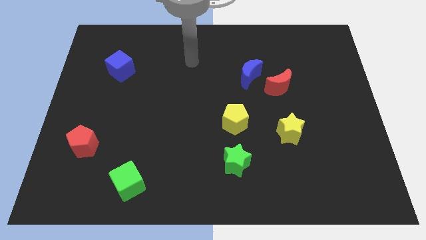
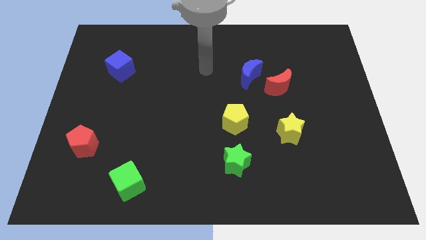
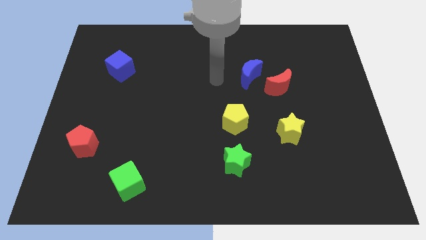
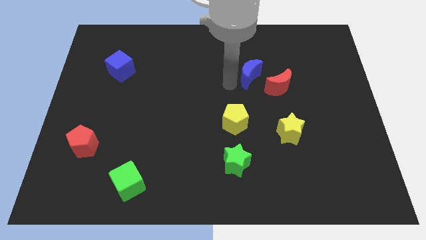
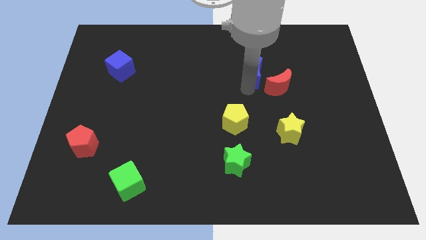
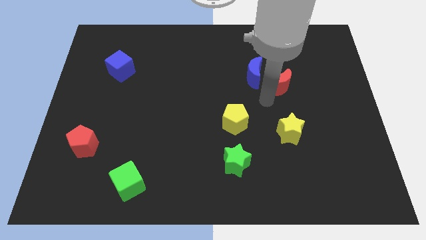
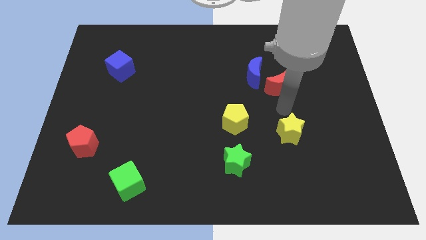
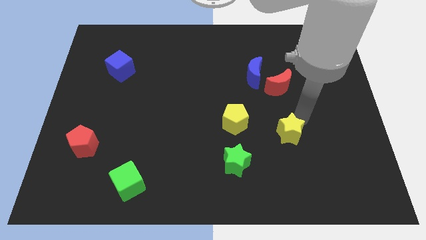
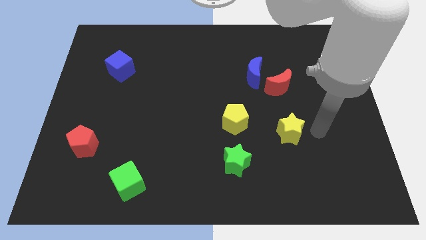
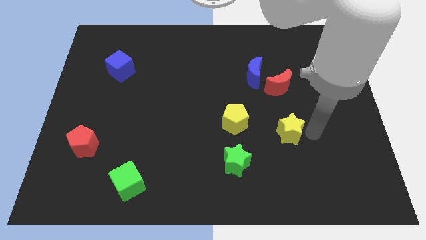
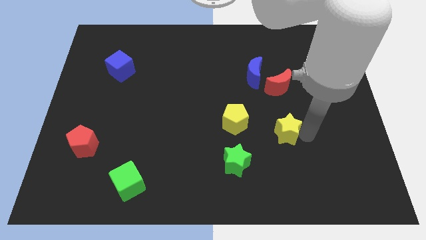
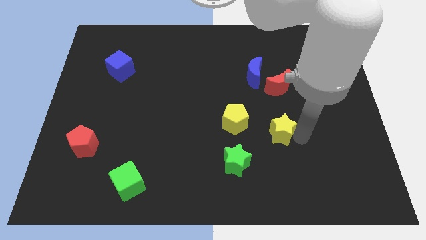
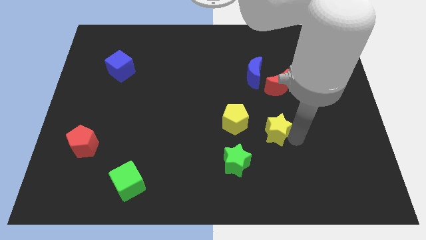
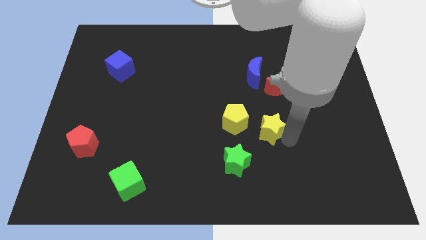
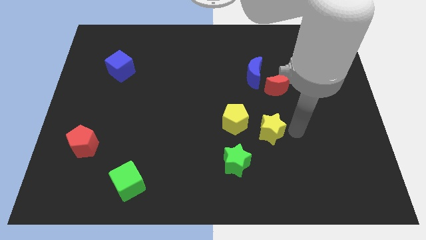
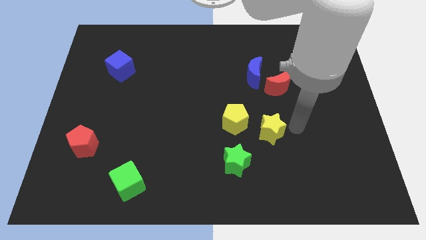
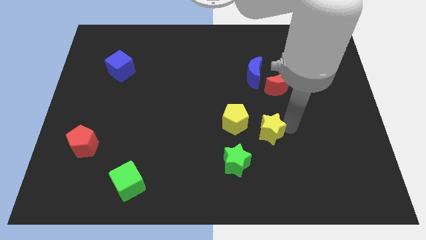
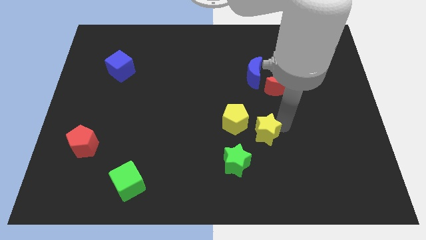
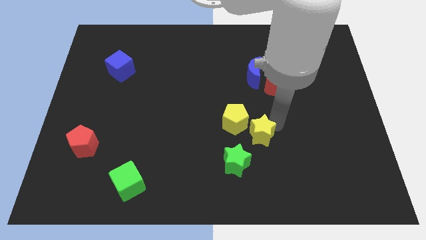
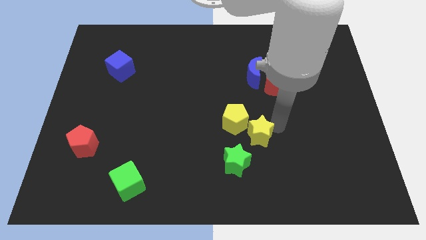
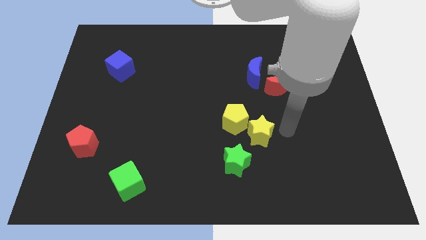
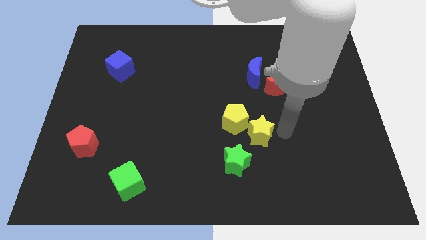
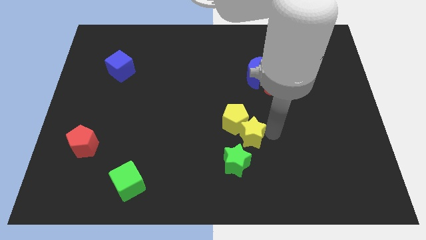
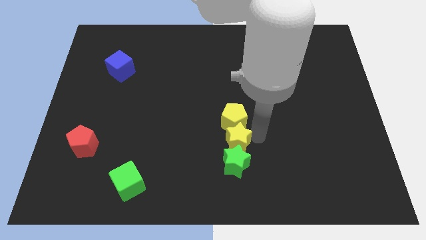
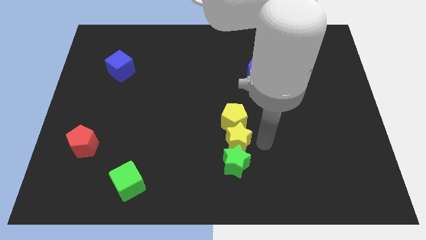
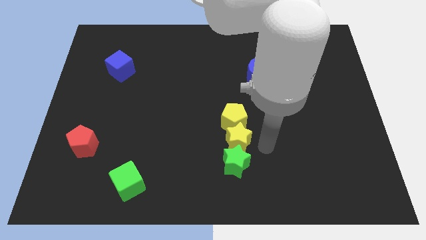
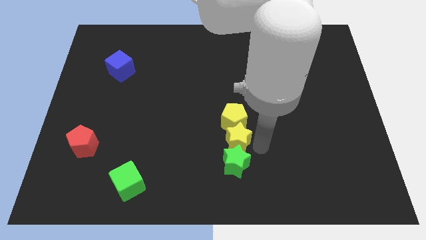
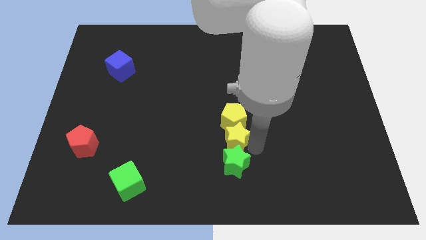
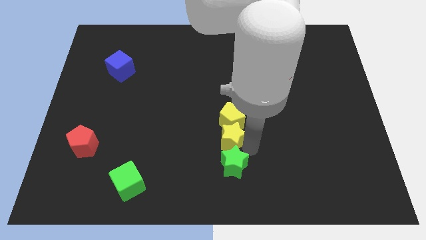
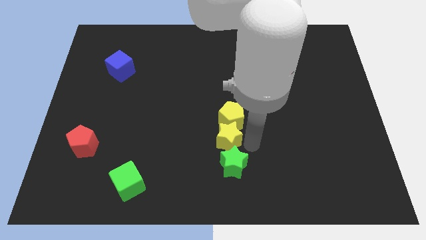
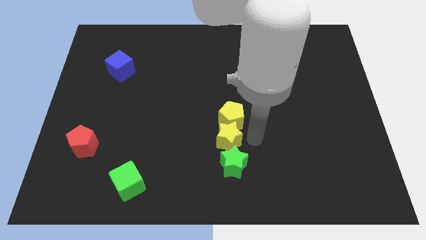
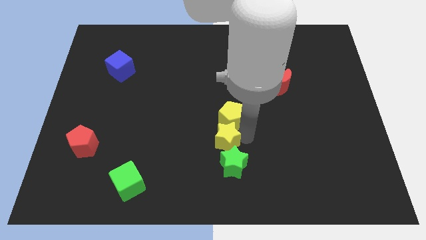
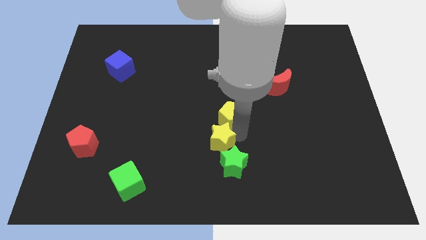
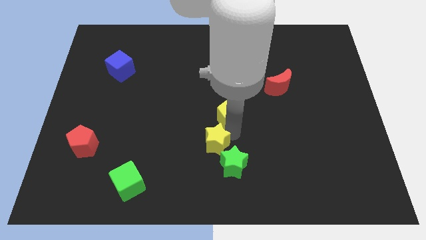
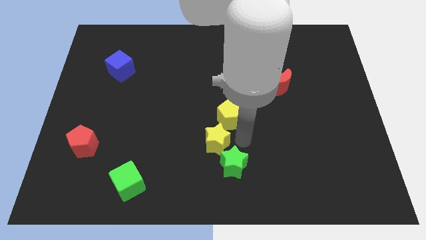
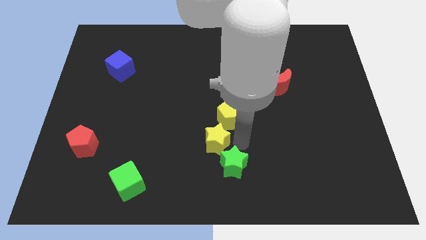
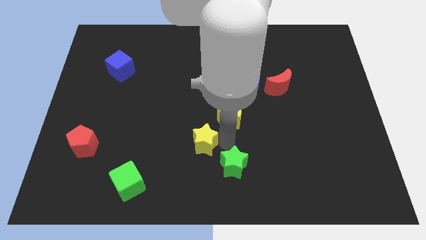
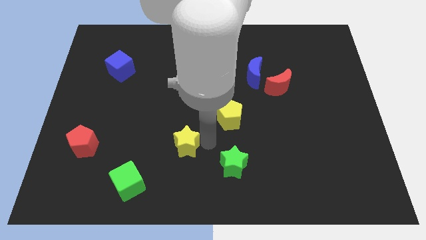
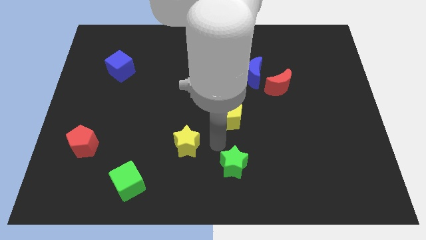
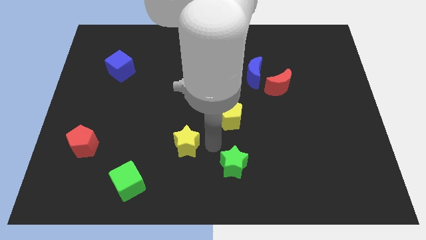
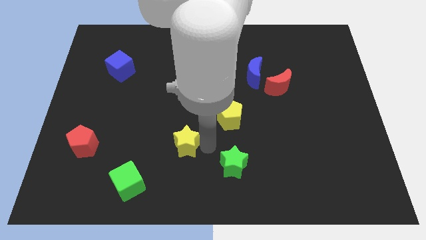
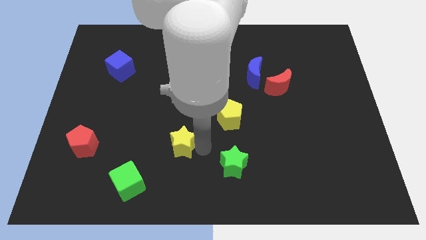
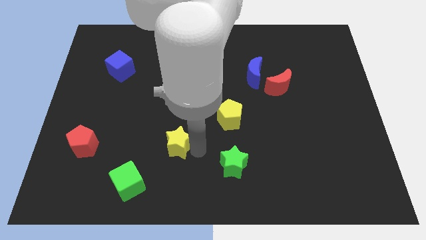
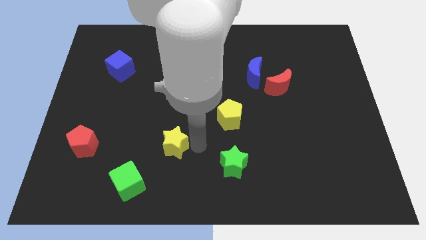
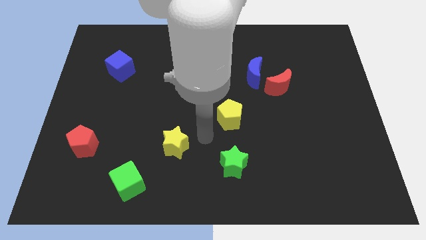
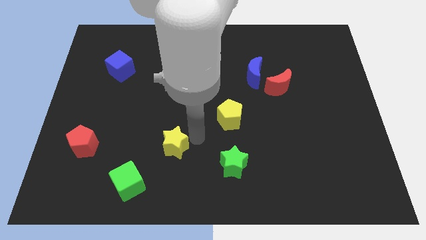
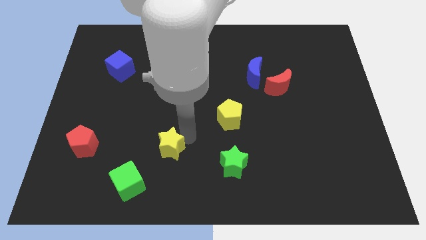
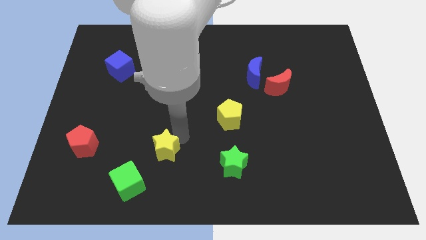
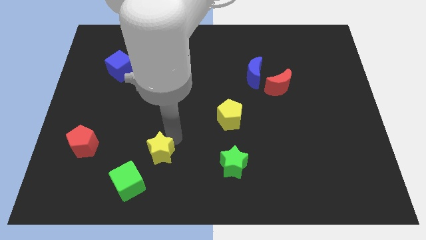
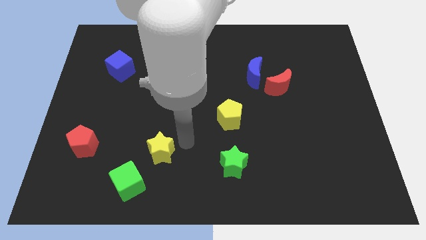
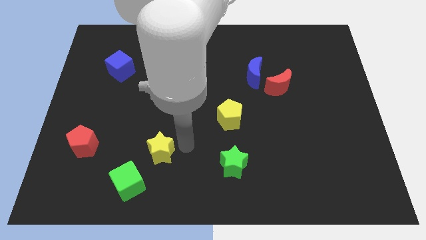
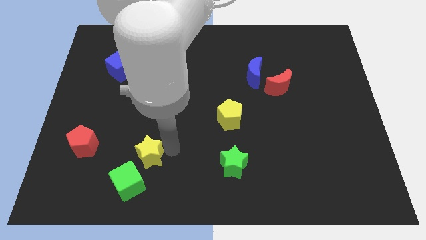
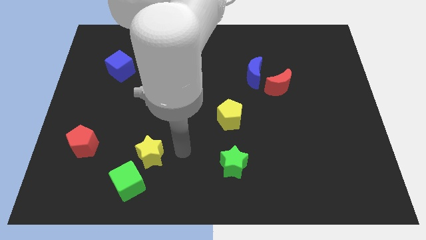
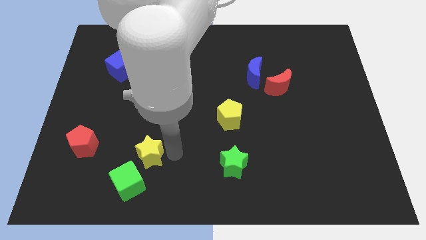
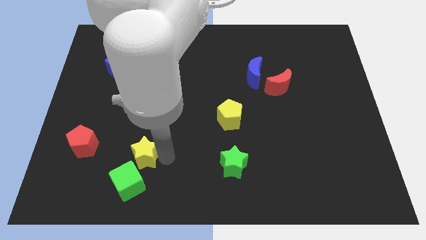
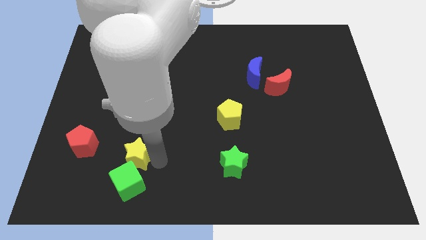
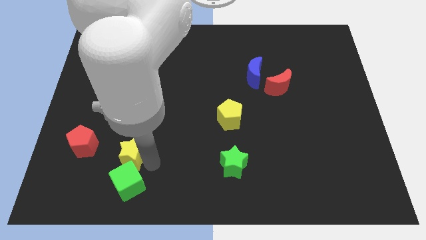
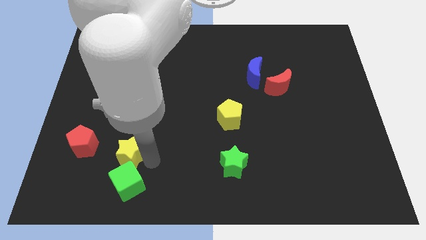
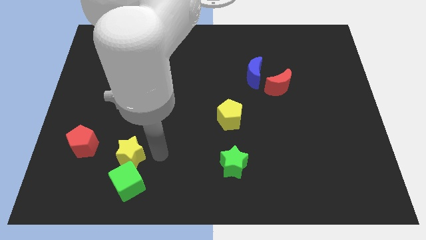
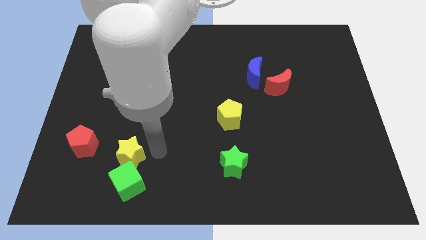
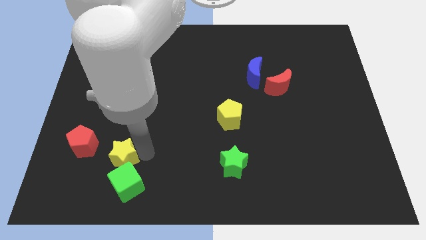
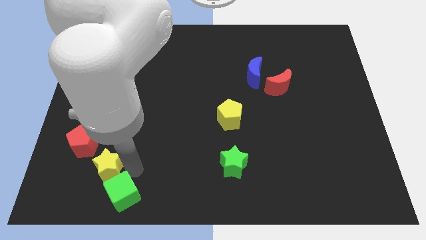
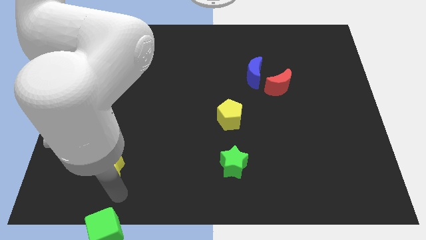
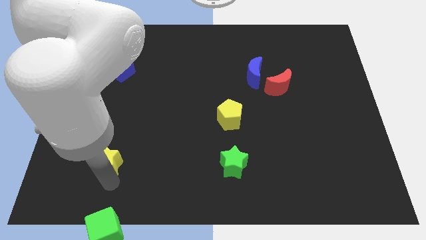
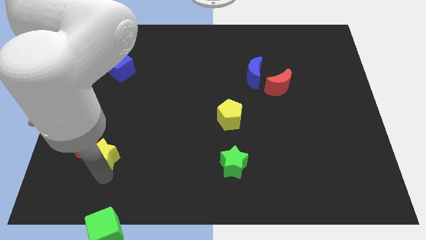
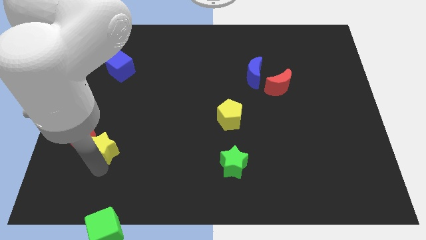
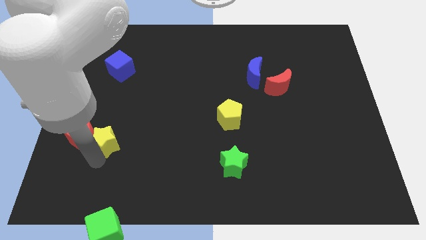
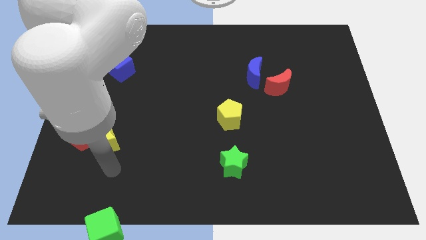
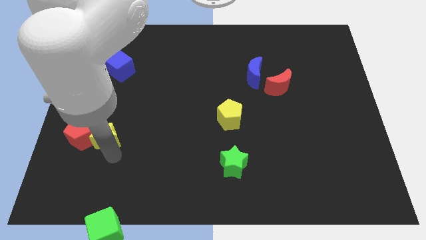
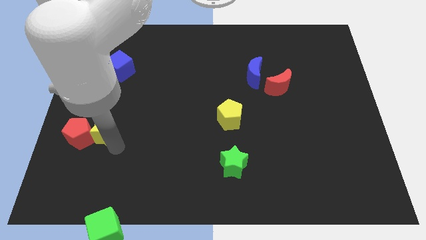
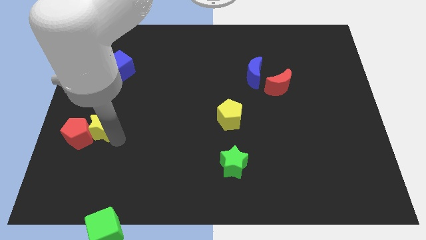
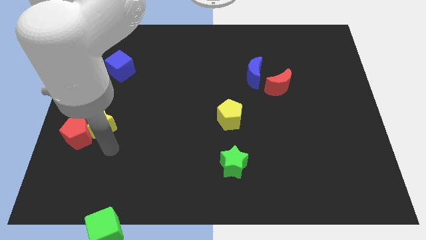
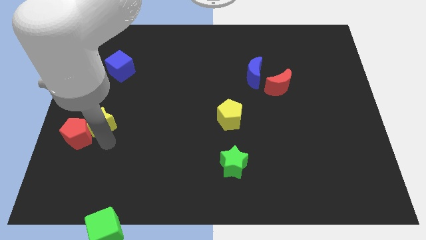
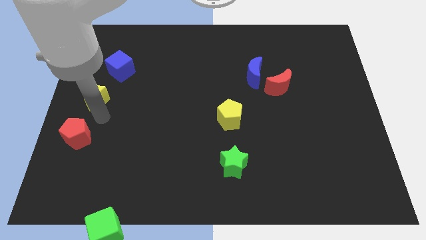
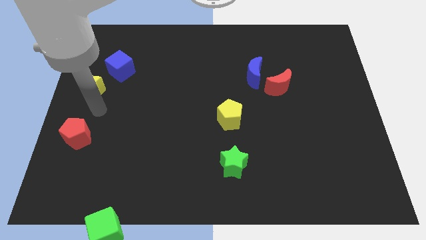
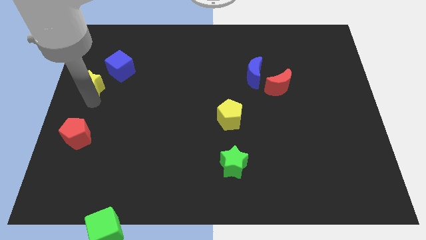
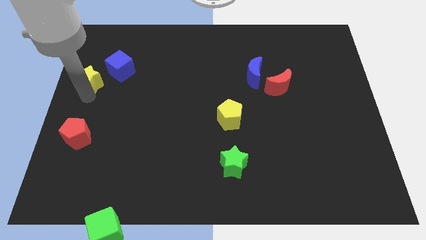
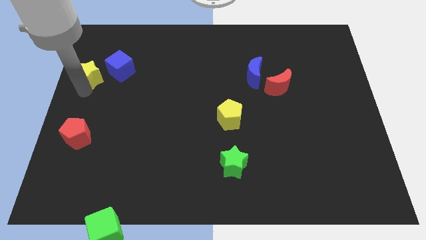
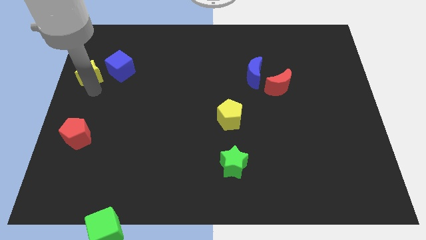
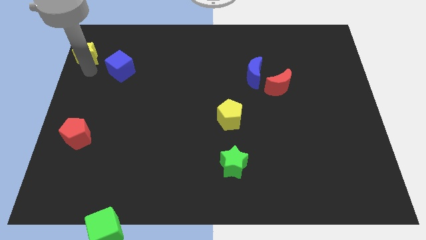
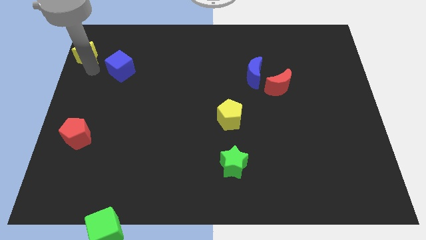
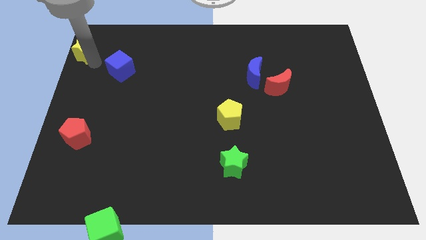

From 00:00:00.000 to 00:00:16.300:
slide the yellow star to the upper left corner
